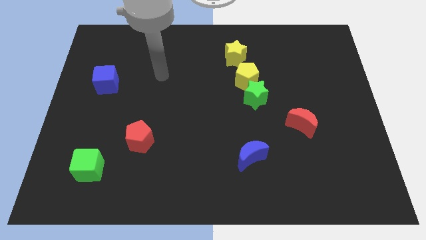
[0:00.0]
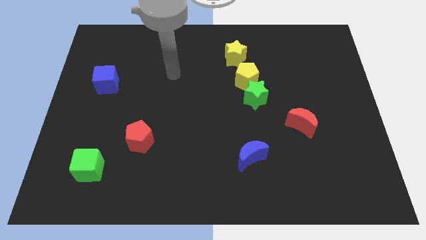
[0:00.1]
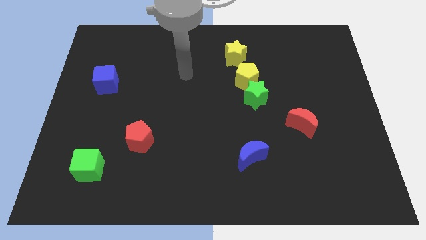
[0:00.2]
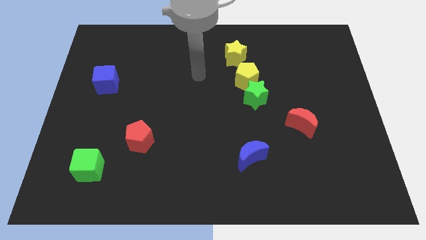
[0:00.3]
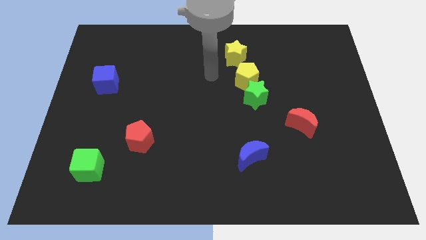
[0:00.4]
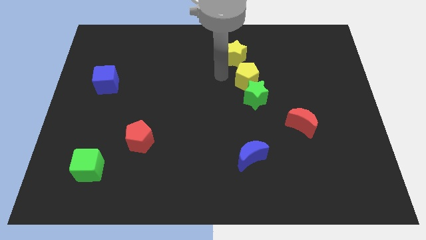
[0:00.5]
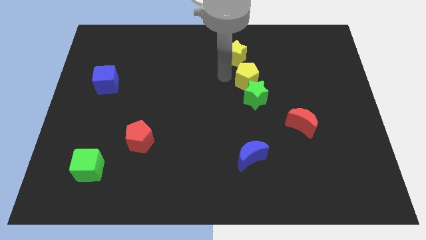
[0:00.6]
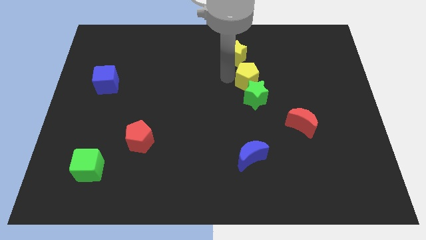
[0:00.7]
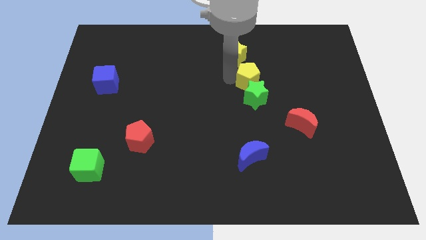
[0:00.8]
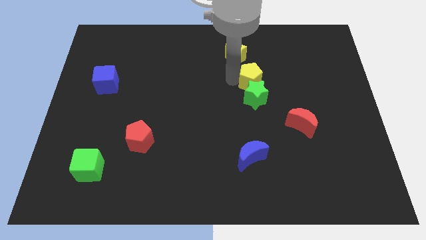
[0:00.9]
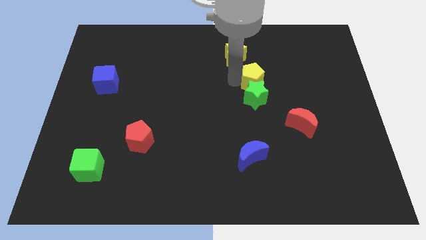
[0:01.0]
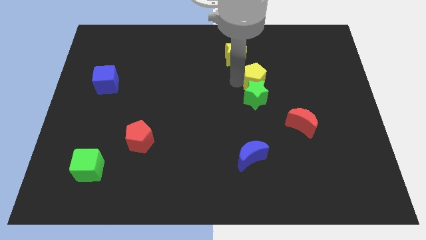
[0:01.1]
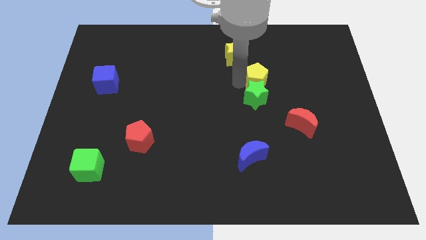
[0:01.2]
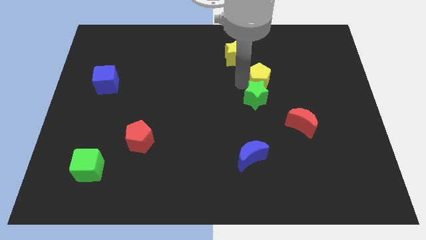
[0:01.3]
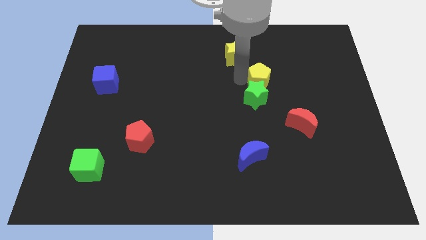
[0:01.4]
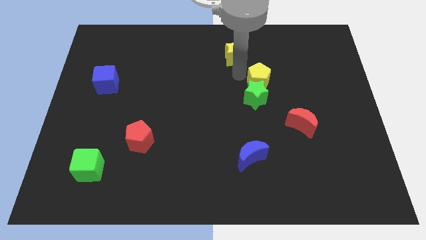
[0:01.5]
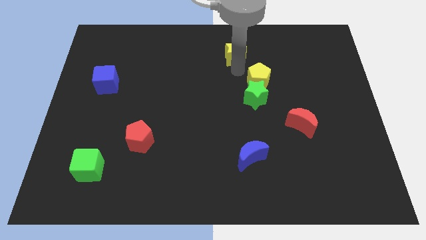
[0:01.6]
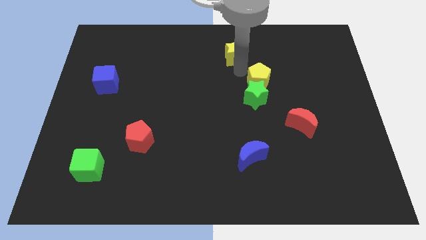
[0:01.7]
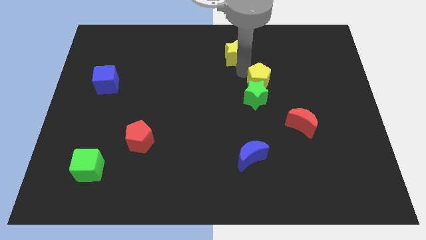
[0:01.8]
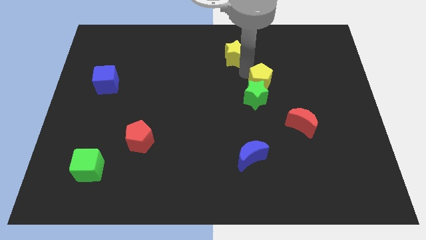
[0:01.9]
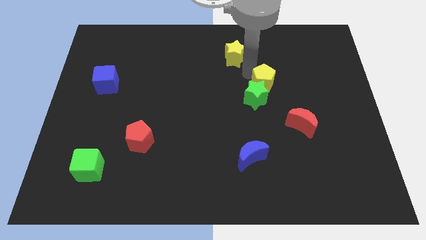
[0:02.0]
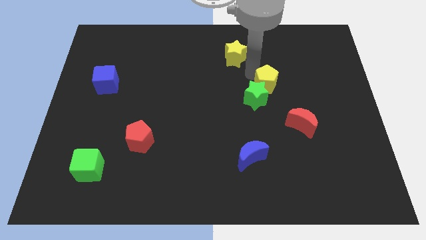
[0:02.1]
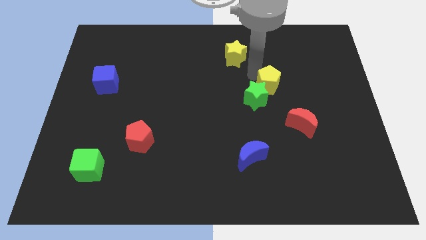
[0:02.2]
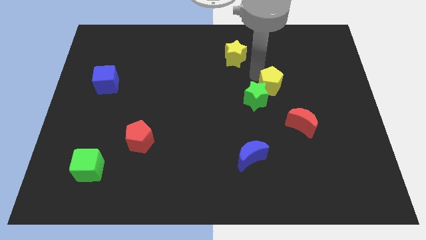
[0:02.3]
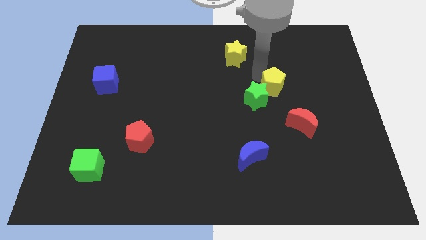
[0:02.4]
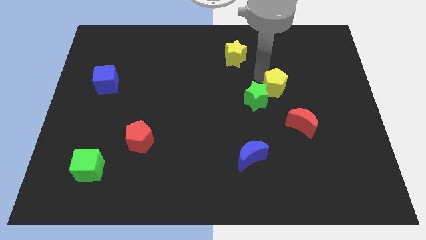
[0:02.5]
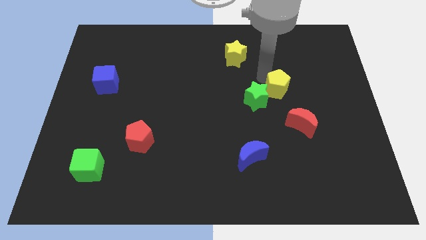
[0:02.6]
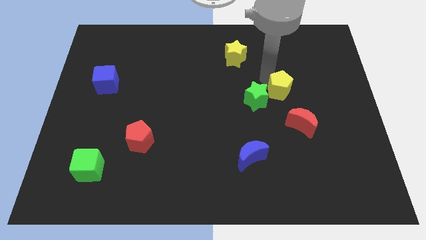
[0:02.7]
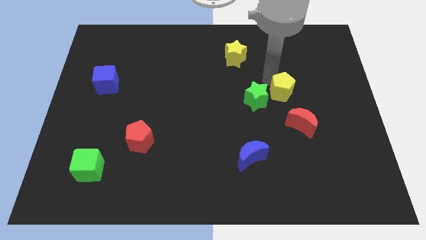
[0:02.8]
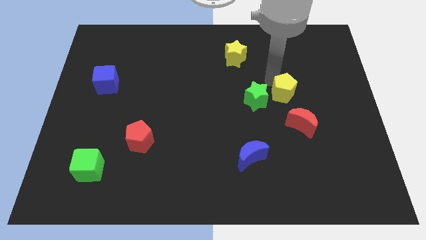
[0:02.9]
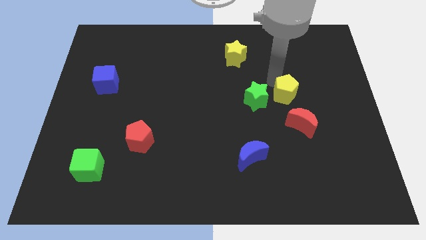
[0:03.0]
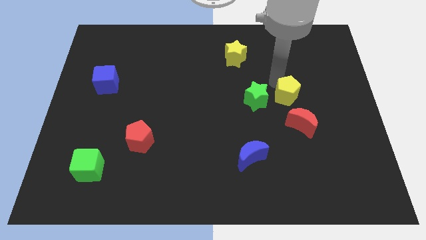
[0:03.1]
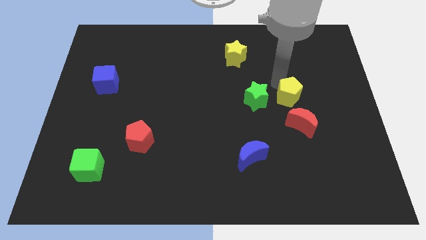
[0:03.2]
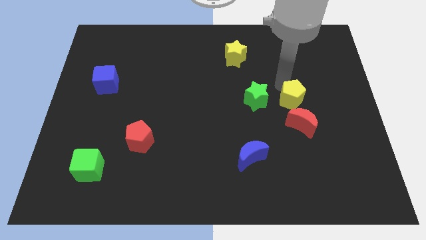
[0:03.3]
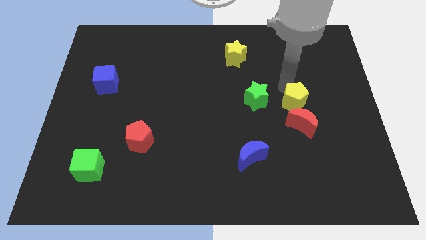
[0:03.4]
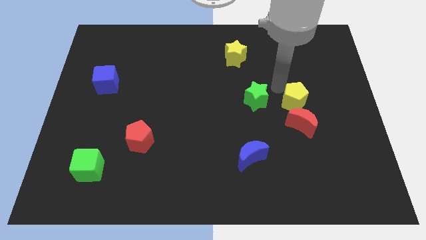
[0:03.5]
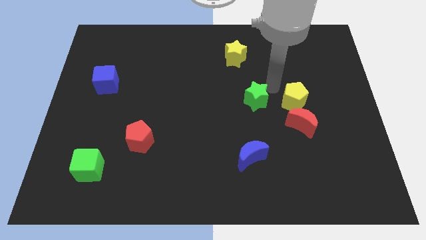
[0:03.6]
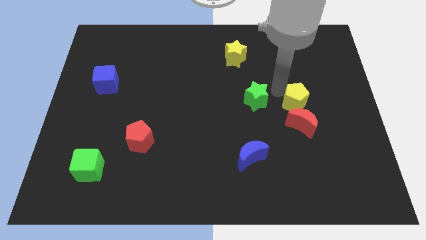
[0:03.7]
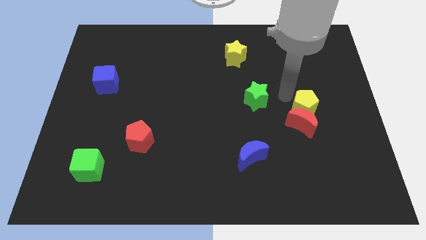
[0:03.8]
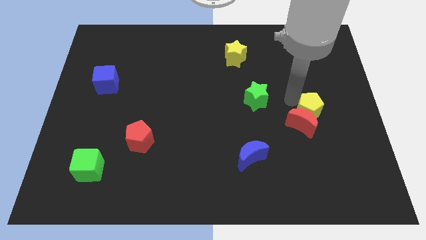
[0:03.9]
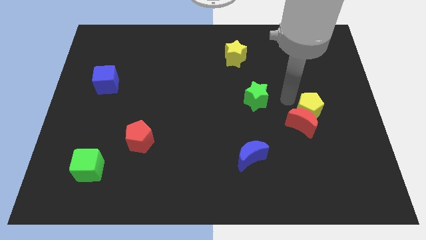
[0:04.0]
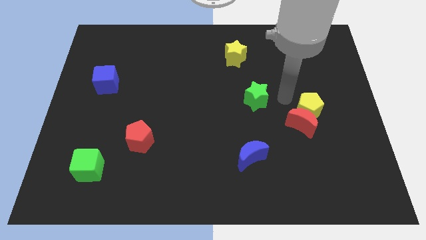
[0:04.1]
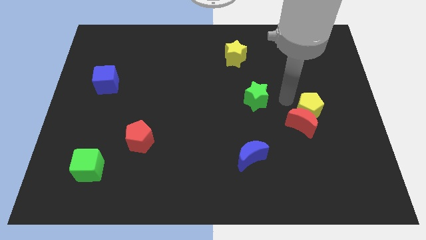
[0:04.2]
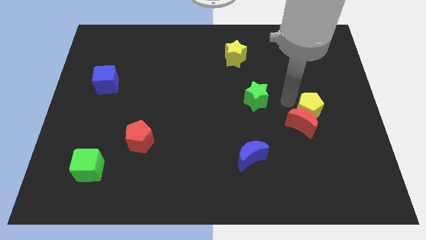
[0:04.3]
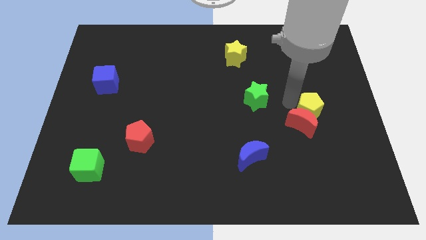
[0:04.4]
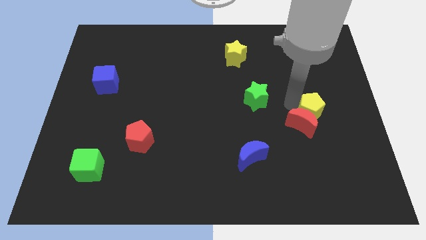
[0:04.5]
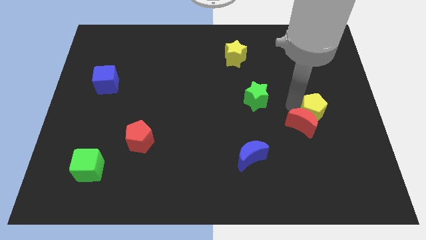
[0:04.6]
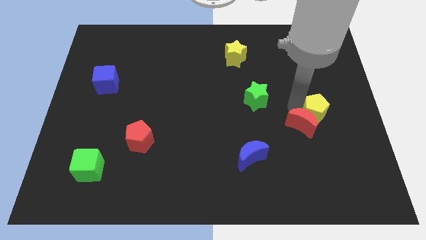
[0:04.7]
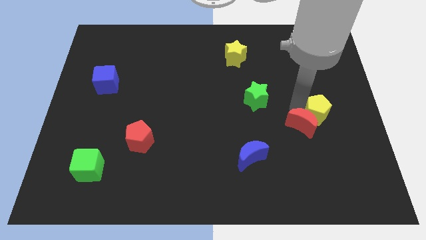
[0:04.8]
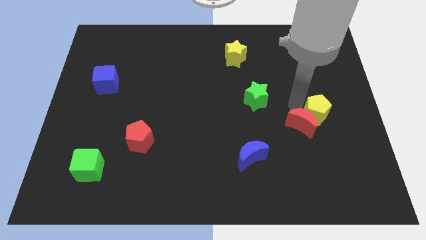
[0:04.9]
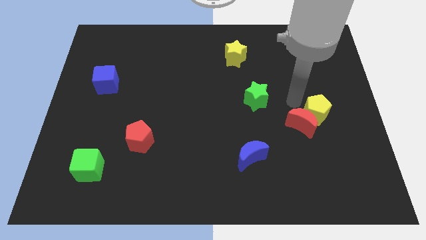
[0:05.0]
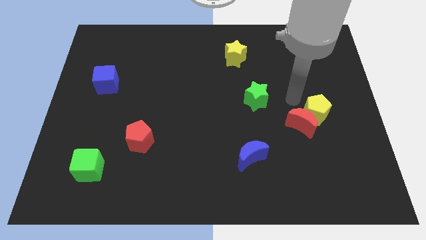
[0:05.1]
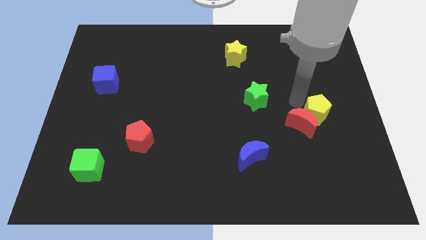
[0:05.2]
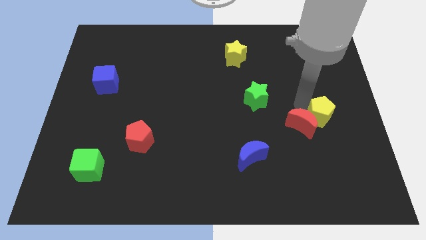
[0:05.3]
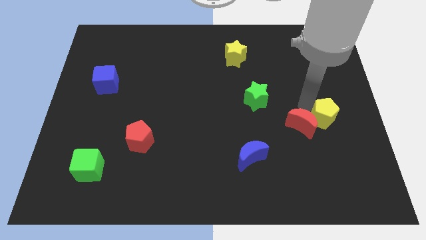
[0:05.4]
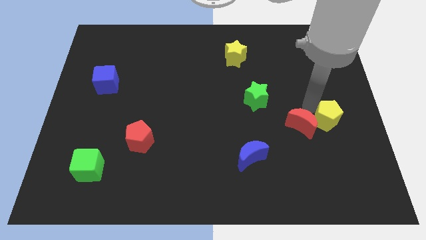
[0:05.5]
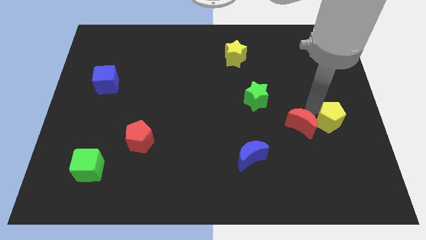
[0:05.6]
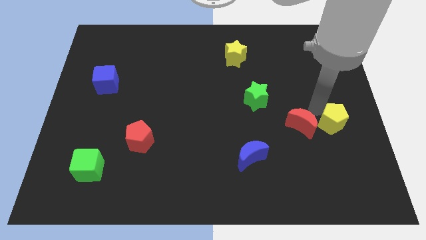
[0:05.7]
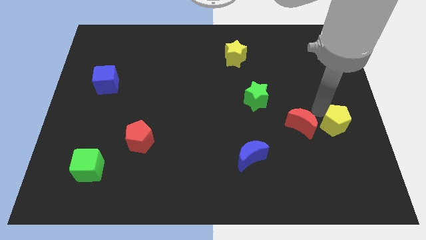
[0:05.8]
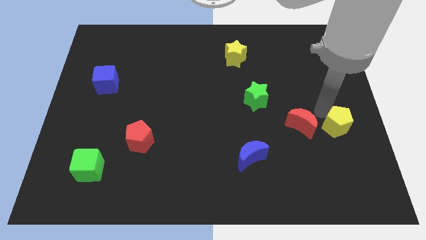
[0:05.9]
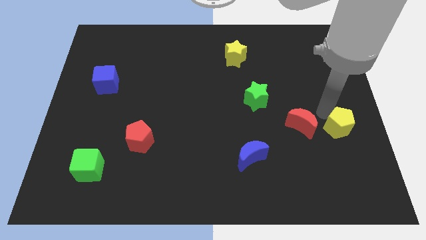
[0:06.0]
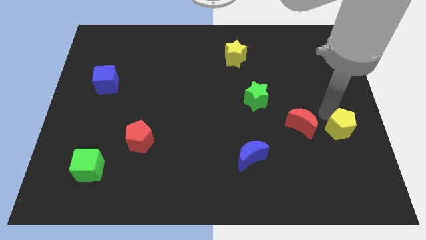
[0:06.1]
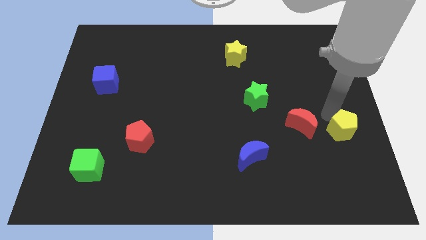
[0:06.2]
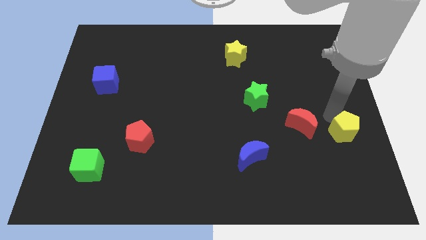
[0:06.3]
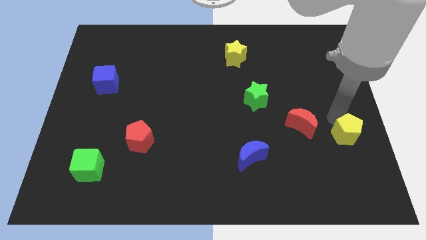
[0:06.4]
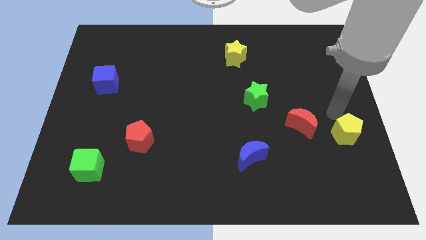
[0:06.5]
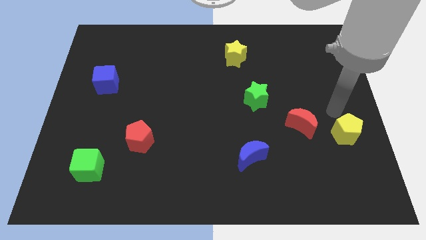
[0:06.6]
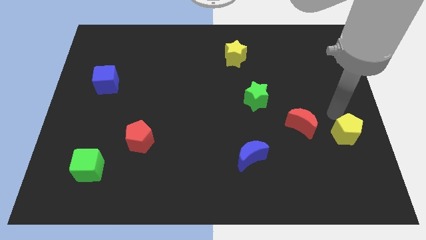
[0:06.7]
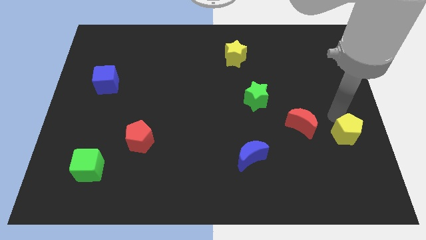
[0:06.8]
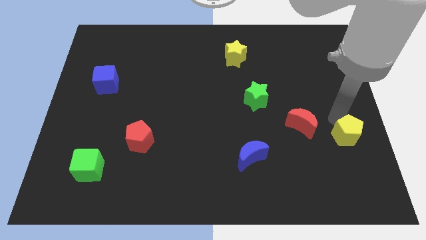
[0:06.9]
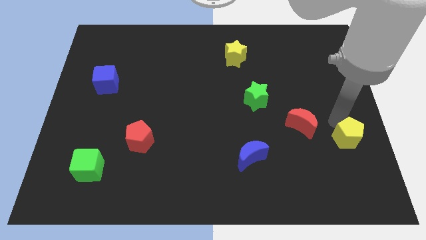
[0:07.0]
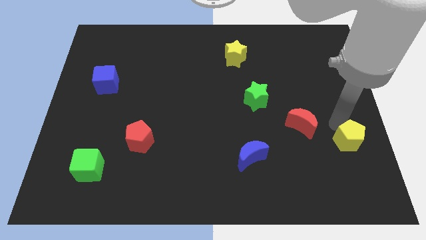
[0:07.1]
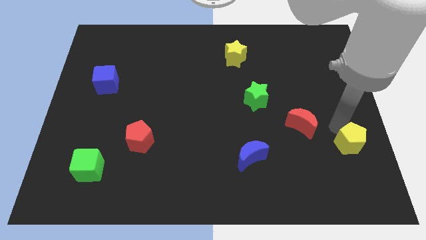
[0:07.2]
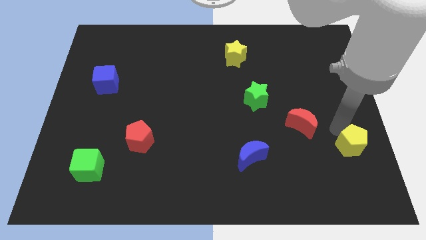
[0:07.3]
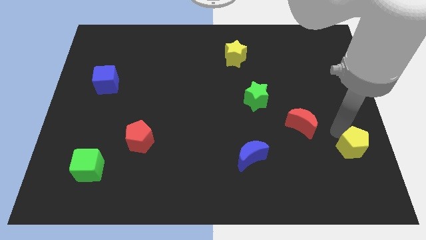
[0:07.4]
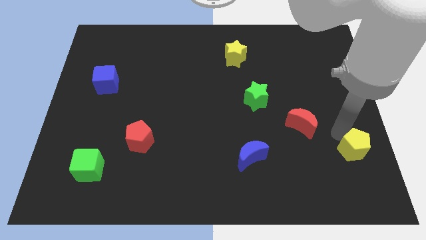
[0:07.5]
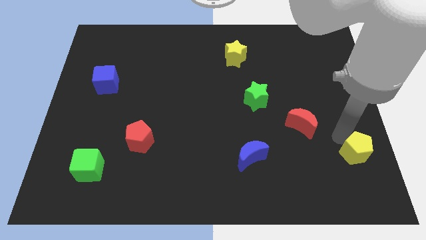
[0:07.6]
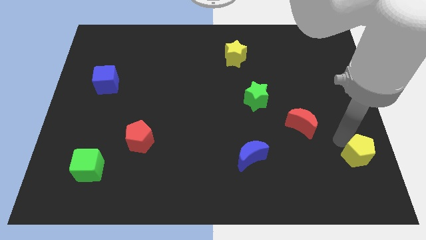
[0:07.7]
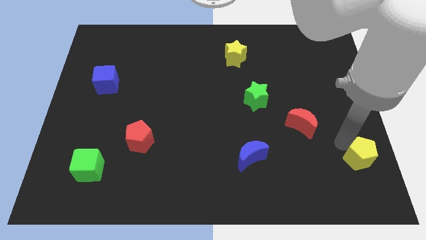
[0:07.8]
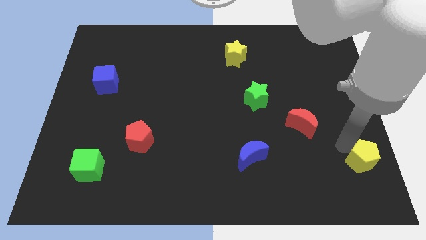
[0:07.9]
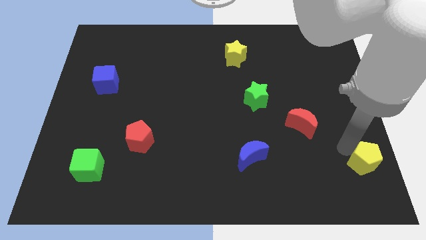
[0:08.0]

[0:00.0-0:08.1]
push the yellow pentagon to the bottom right corner
